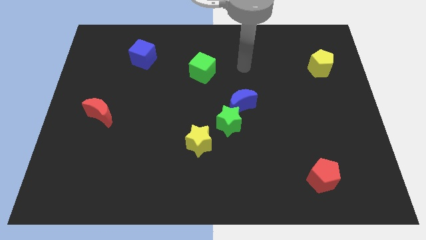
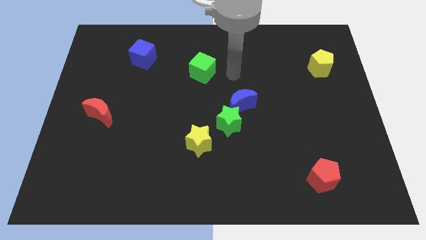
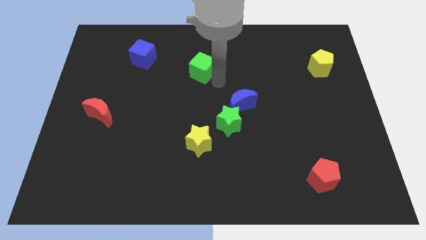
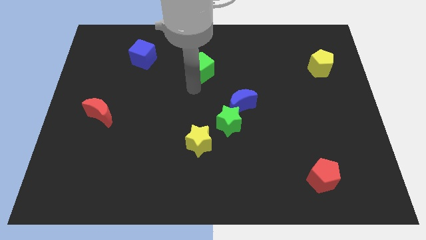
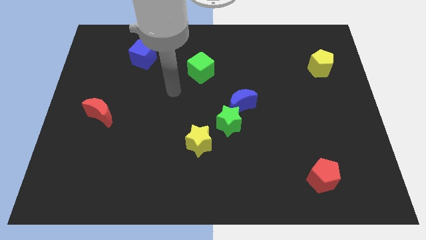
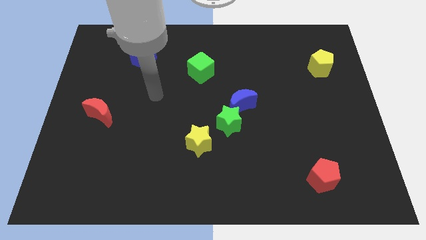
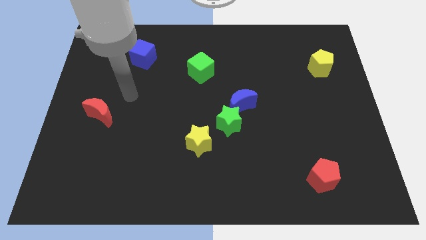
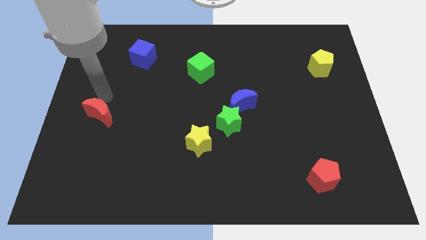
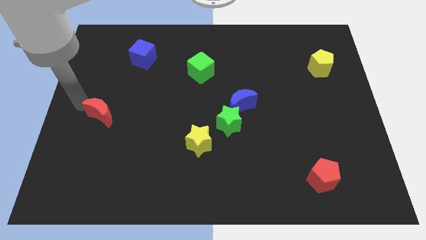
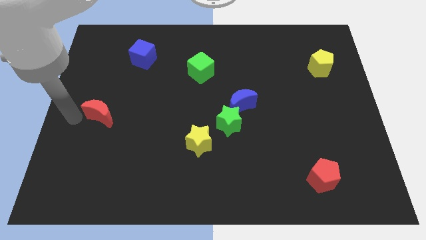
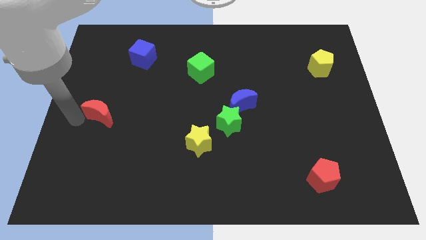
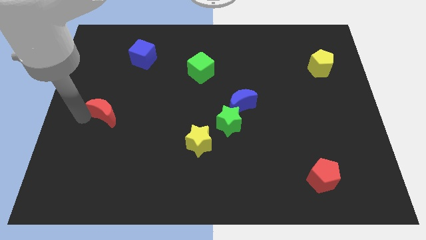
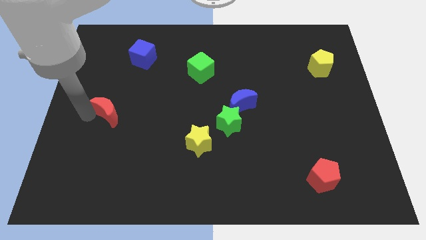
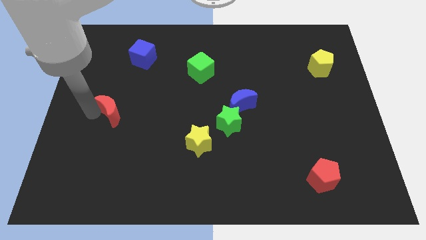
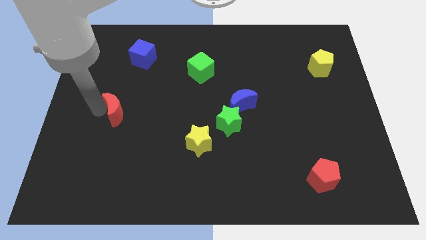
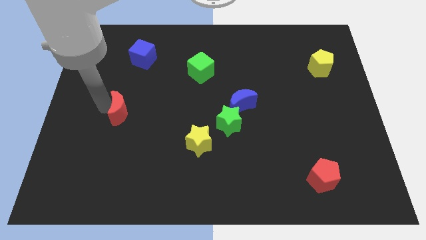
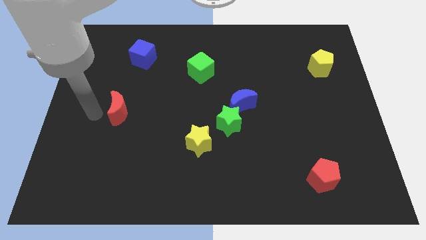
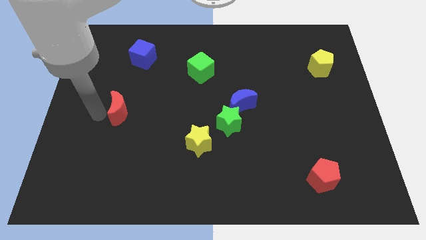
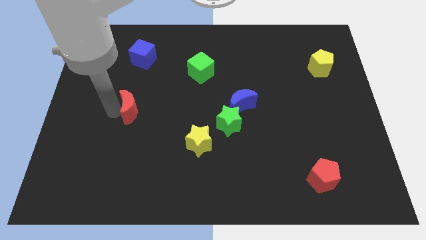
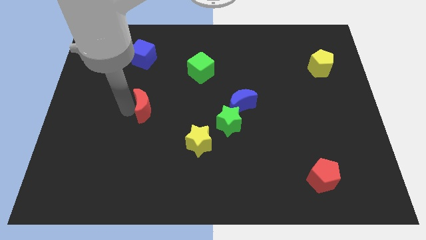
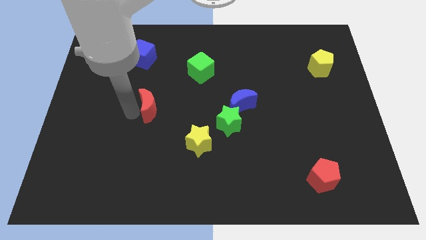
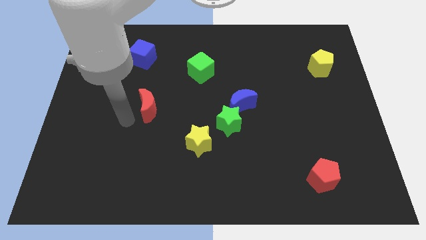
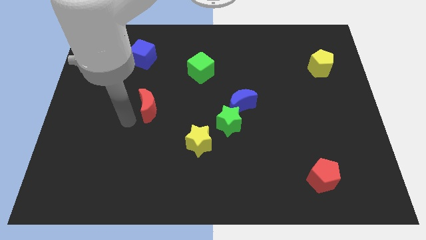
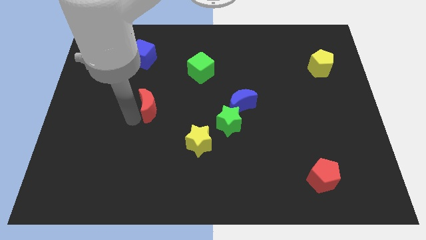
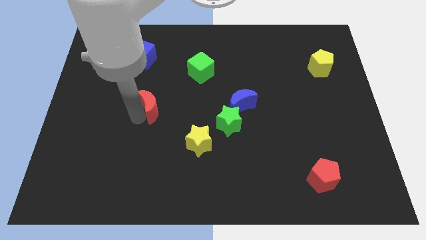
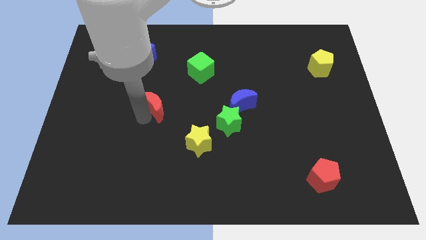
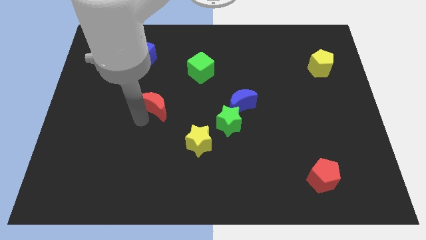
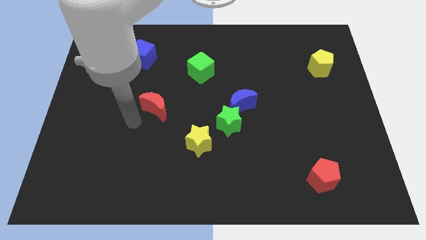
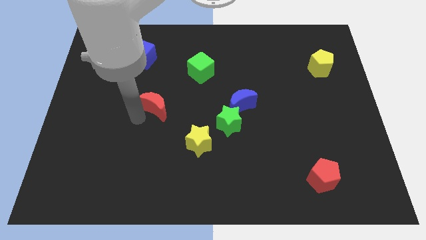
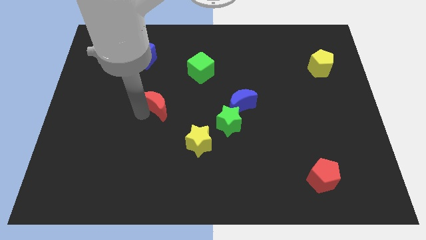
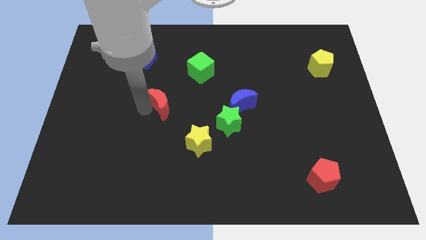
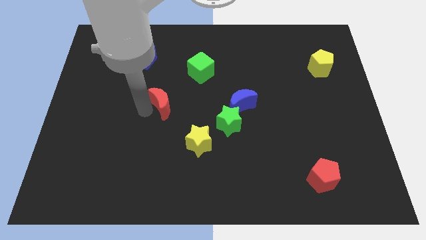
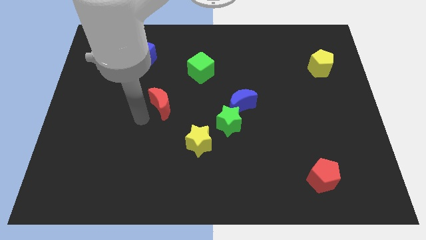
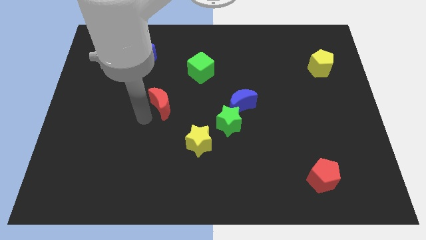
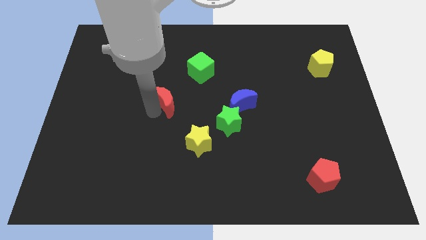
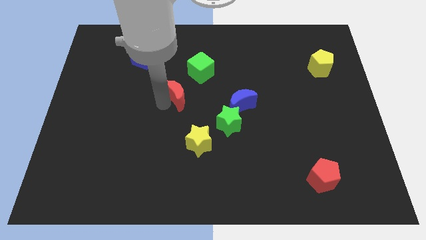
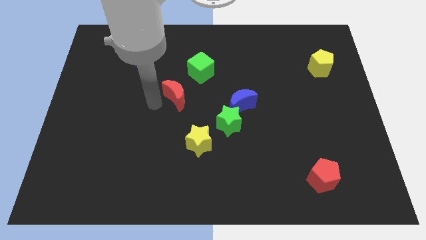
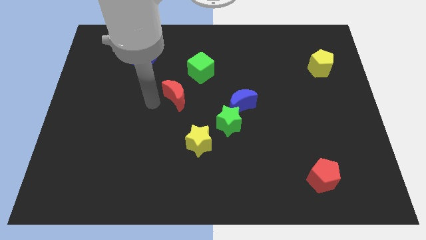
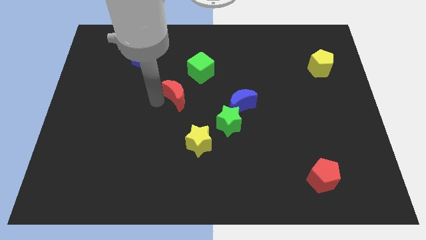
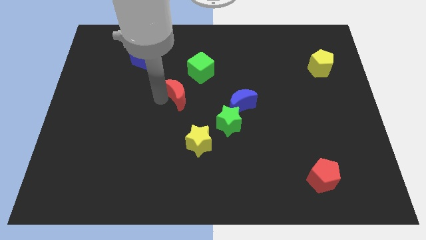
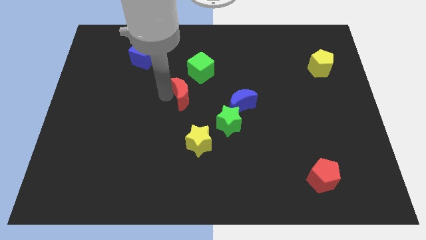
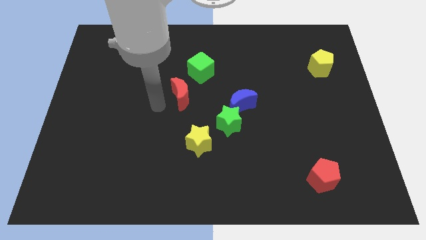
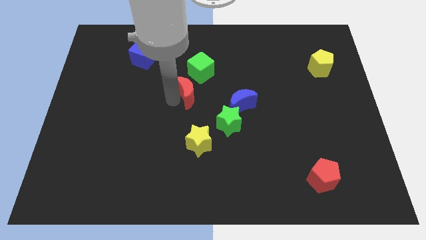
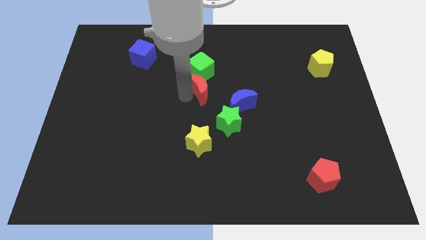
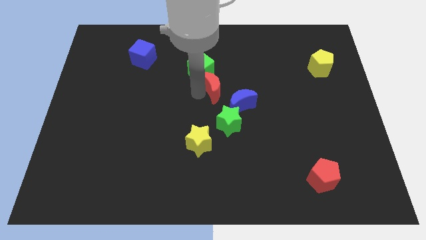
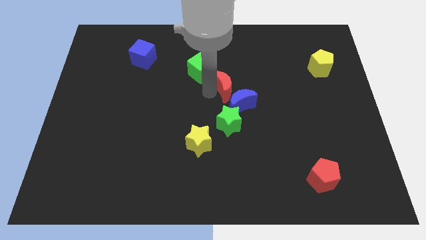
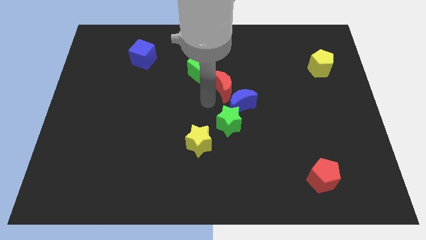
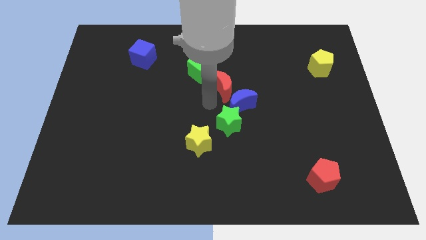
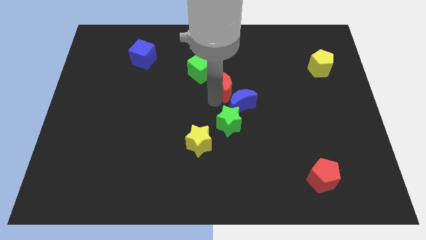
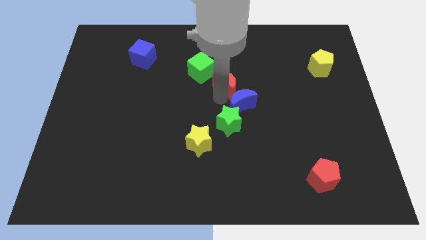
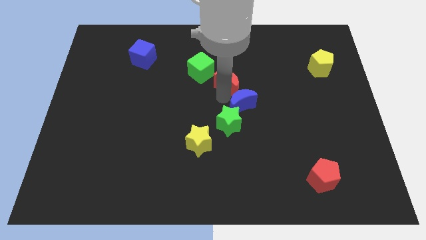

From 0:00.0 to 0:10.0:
push the red moon just right of the green cube

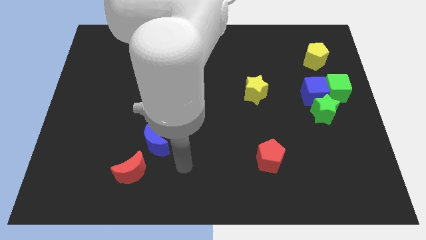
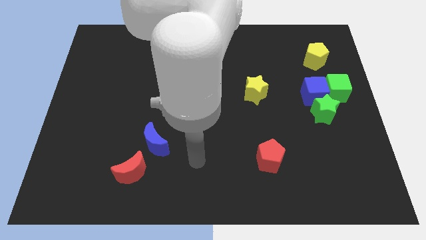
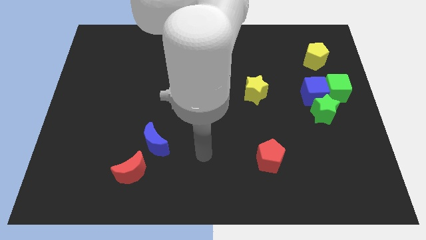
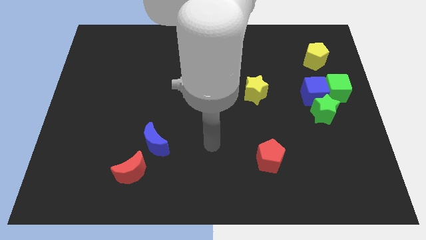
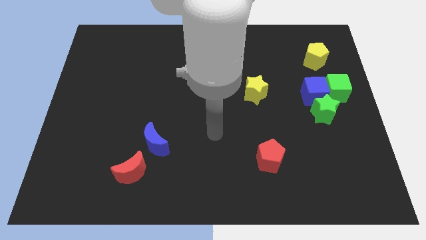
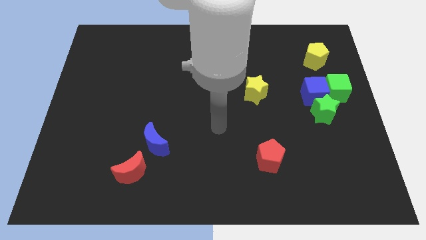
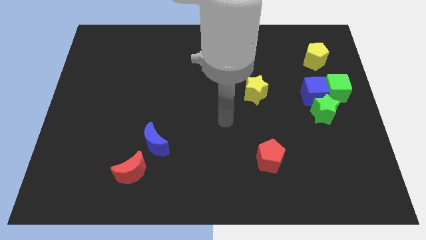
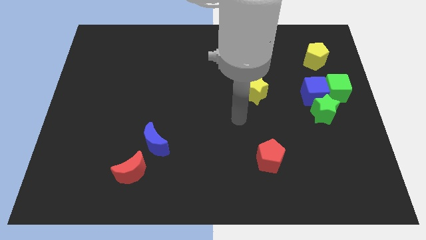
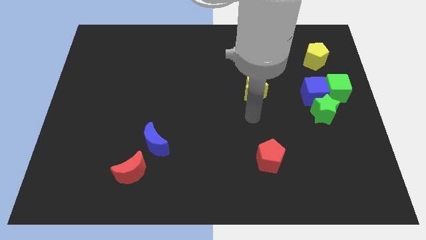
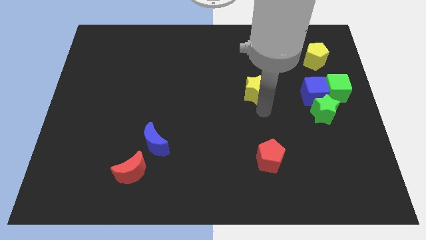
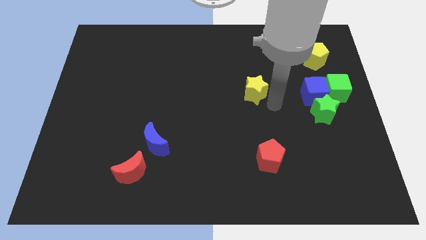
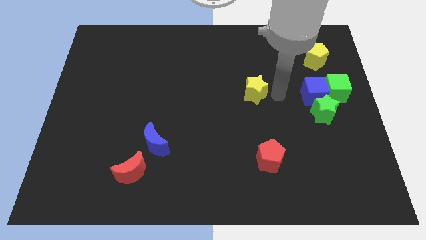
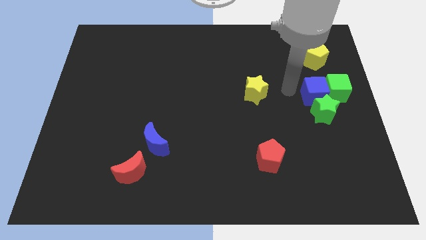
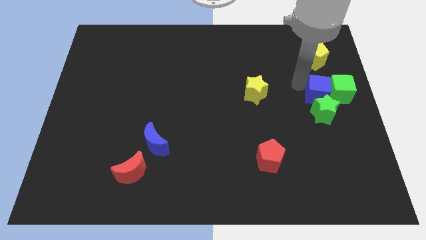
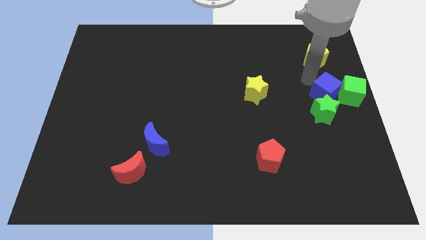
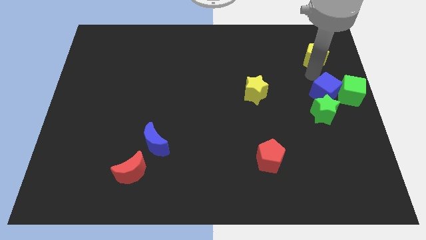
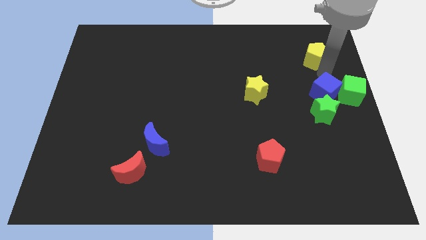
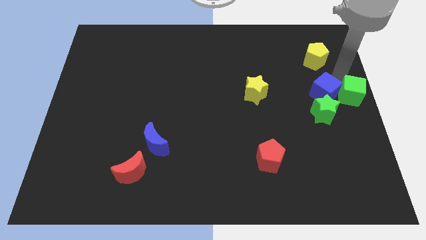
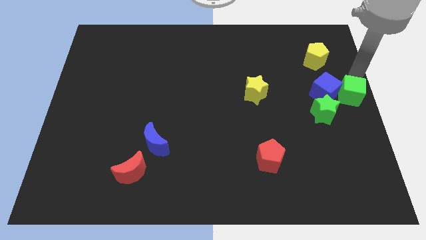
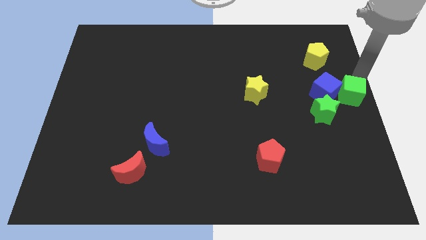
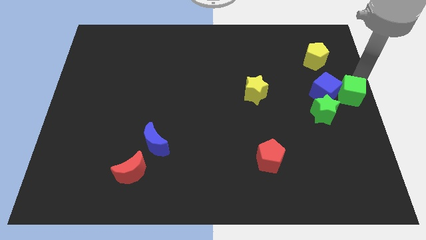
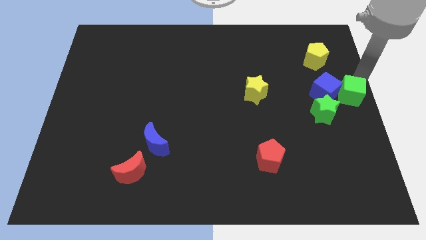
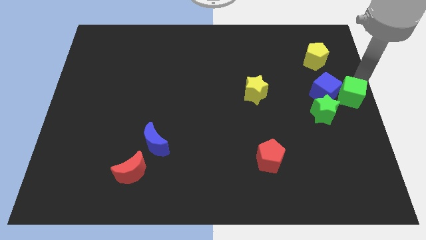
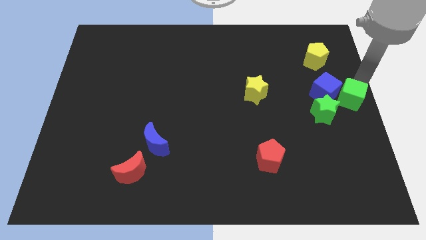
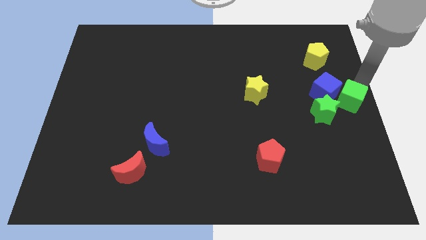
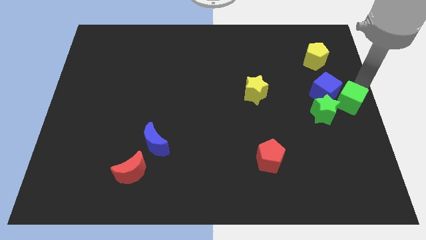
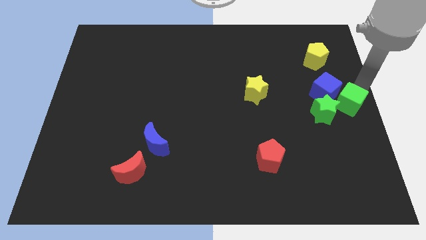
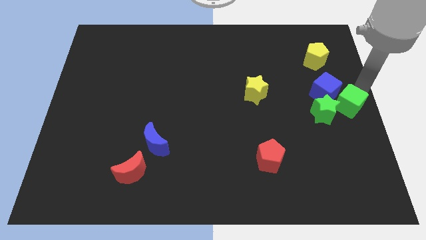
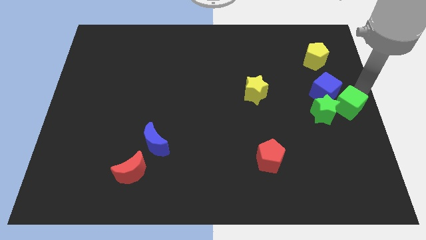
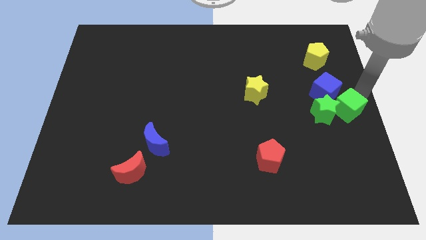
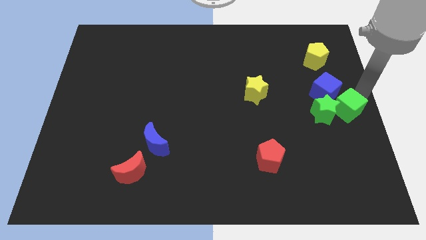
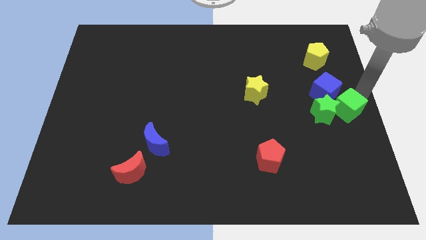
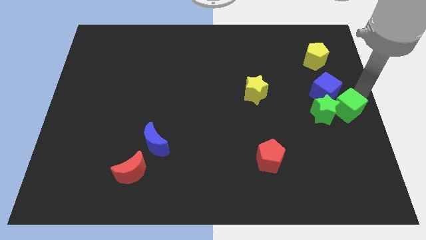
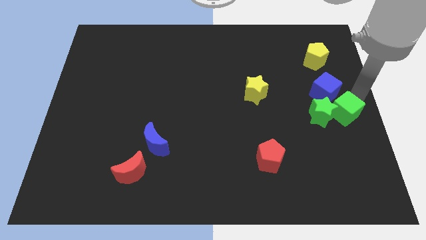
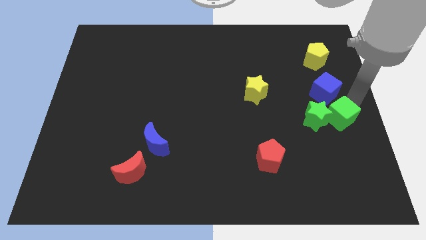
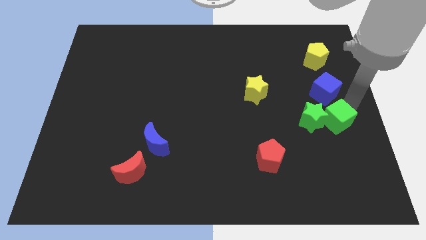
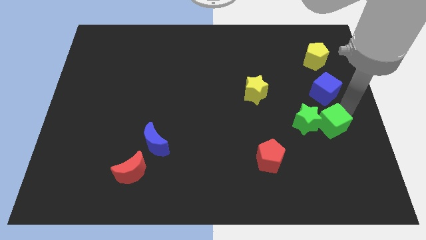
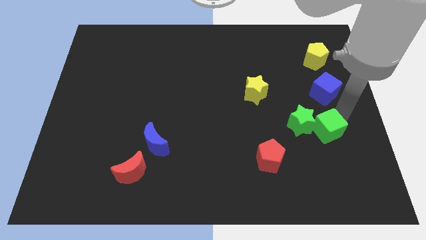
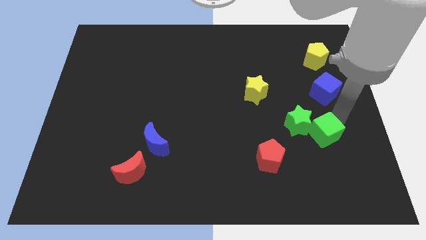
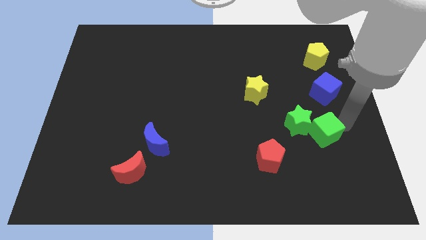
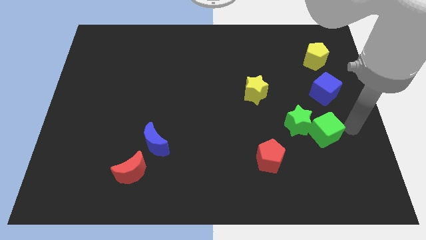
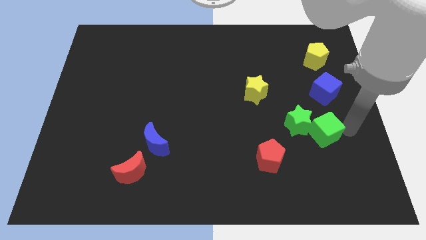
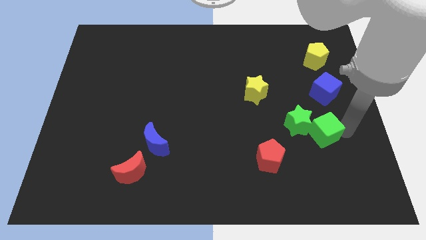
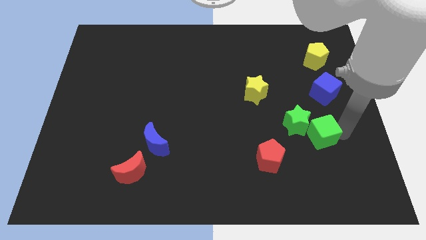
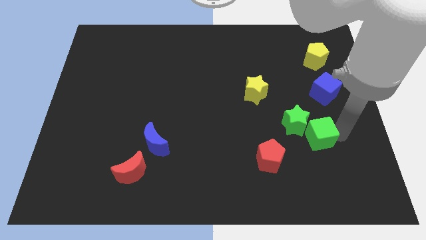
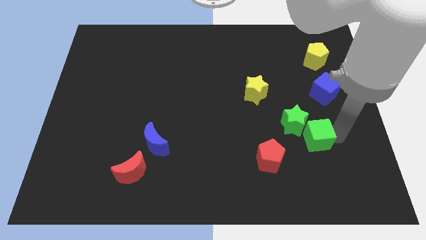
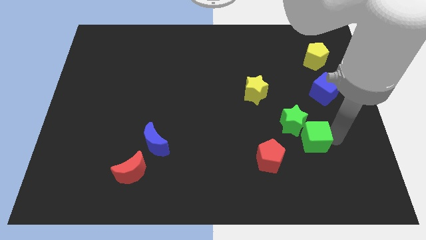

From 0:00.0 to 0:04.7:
put the green cube to the top right of the red pentagon
